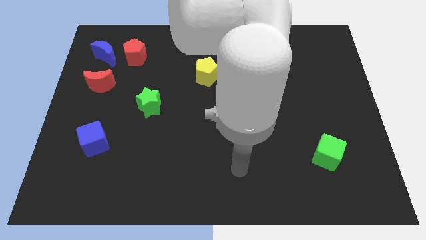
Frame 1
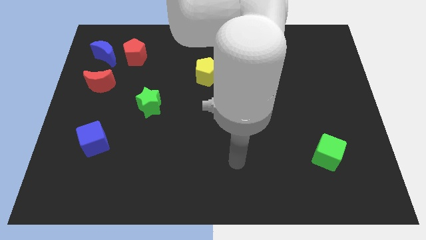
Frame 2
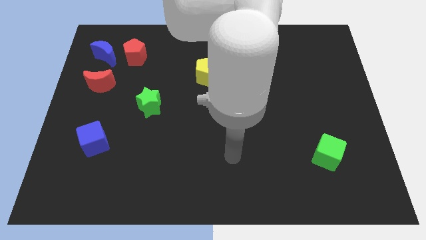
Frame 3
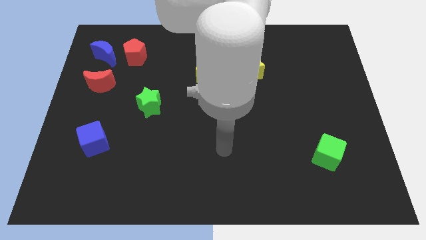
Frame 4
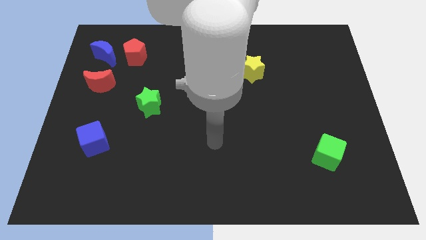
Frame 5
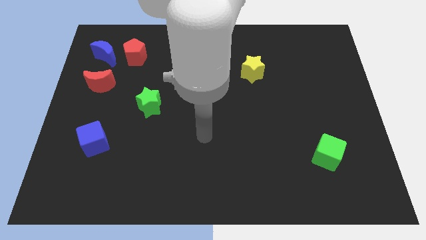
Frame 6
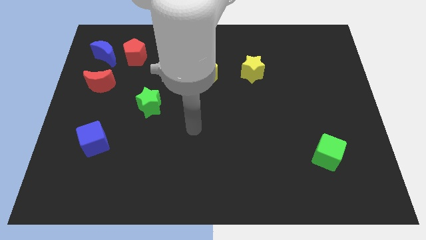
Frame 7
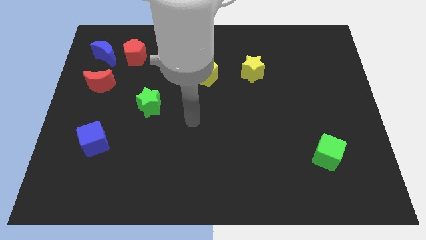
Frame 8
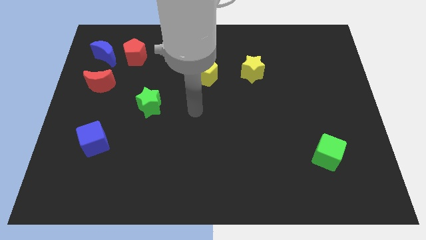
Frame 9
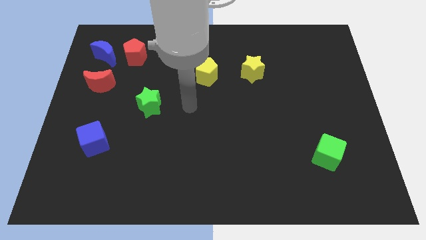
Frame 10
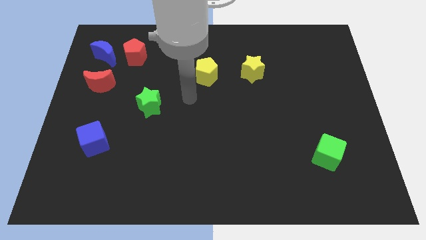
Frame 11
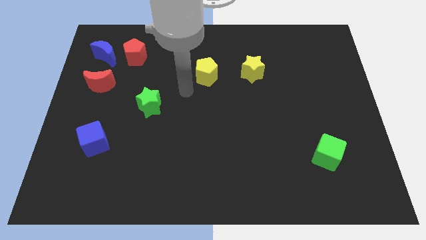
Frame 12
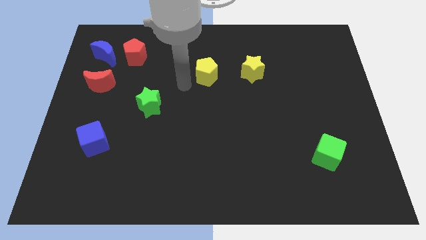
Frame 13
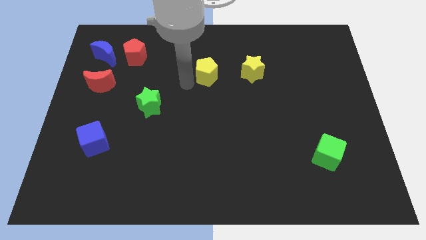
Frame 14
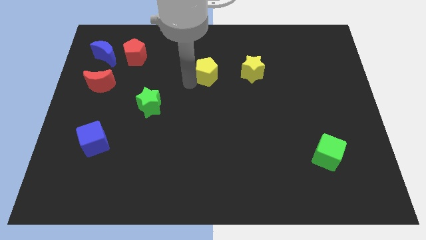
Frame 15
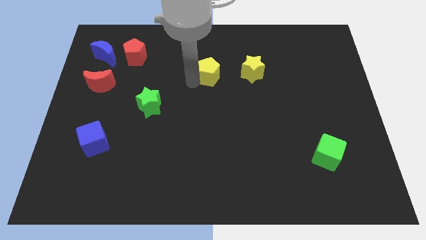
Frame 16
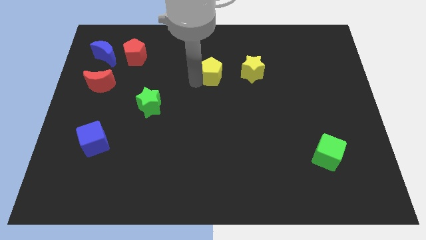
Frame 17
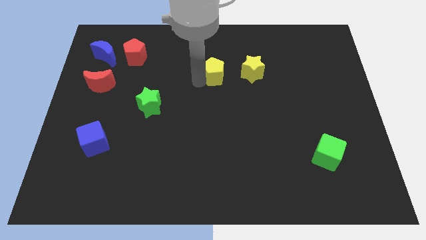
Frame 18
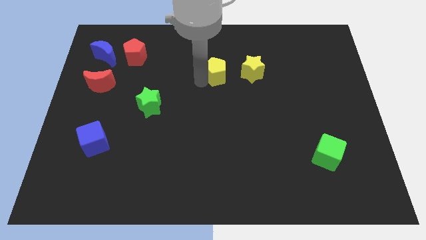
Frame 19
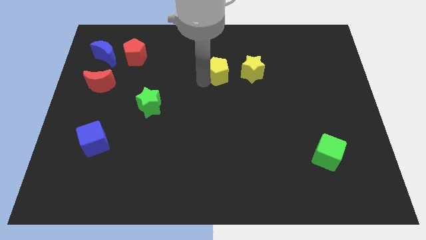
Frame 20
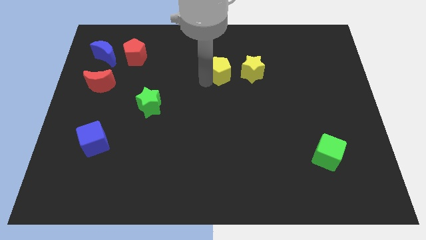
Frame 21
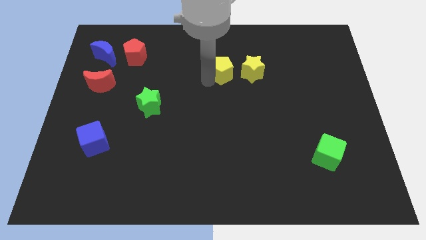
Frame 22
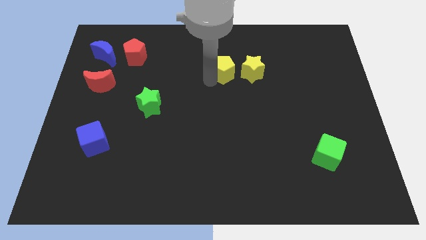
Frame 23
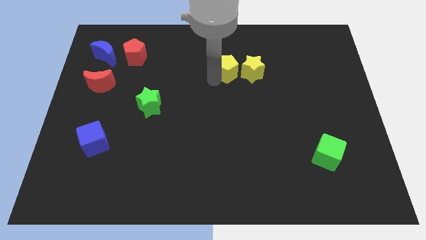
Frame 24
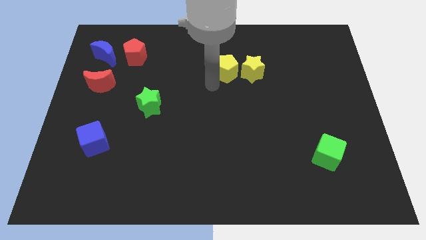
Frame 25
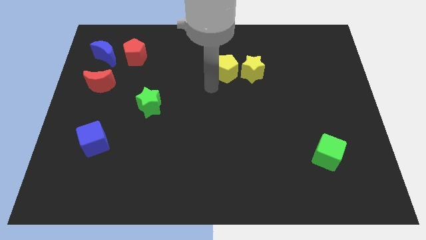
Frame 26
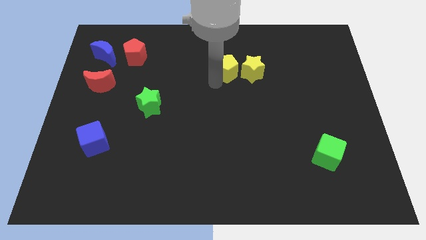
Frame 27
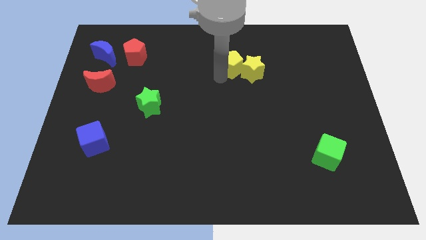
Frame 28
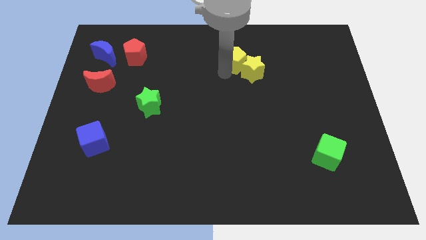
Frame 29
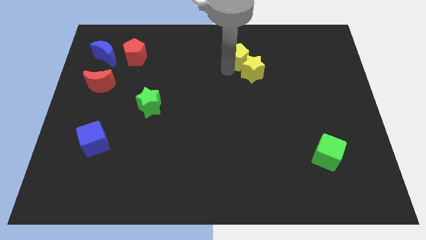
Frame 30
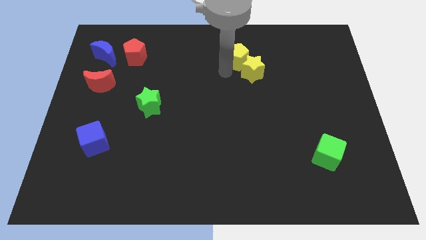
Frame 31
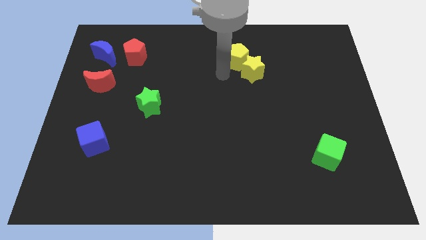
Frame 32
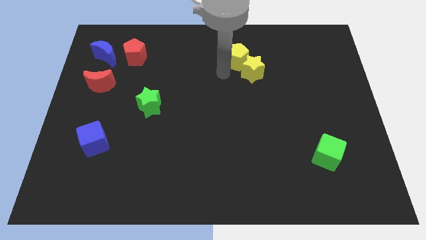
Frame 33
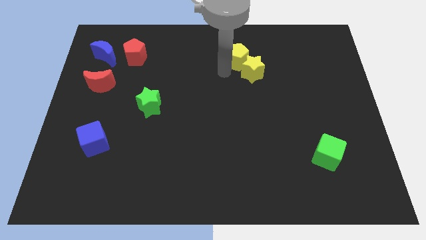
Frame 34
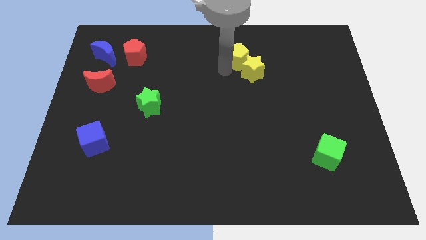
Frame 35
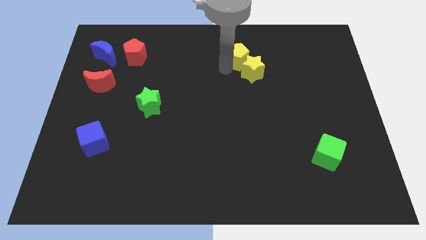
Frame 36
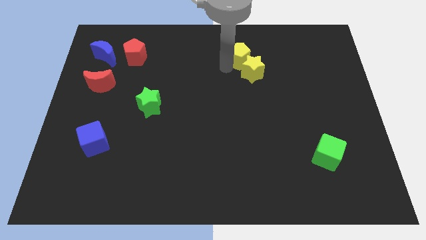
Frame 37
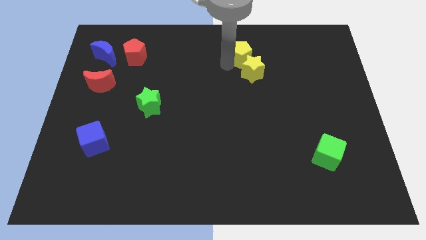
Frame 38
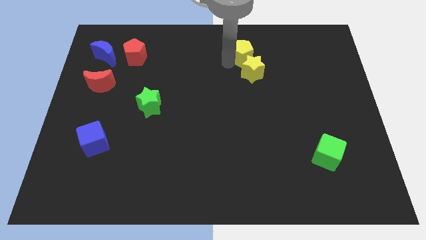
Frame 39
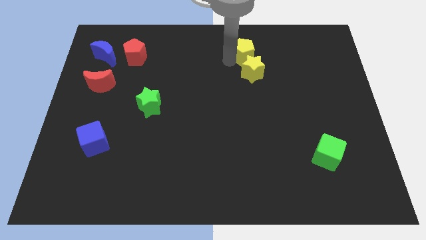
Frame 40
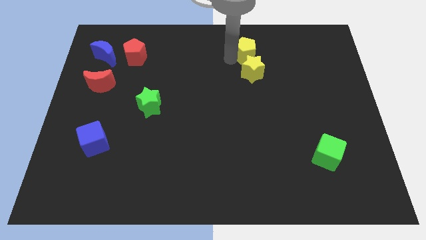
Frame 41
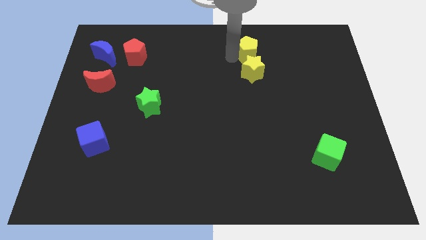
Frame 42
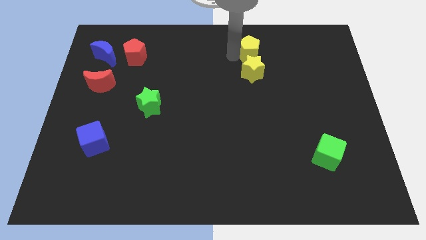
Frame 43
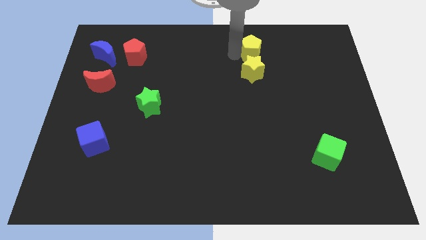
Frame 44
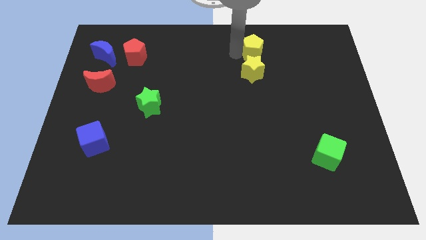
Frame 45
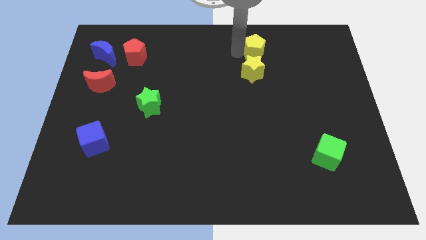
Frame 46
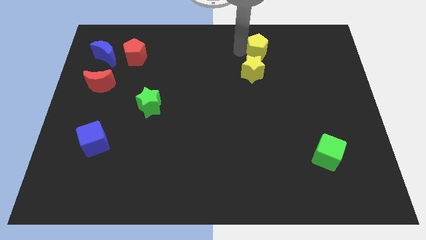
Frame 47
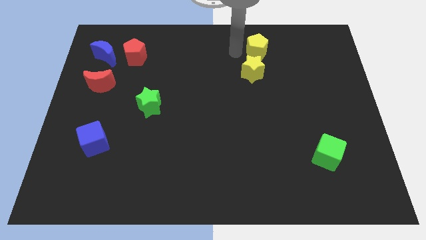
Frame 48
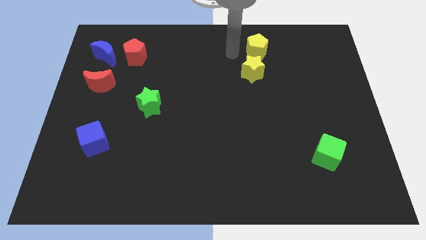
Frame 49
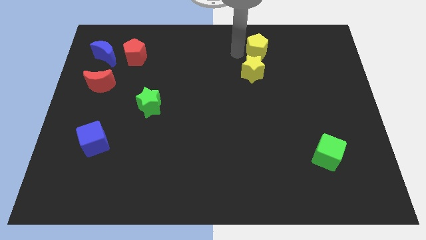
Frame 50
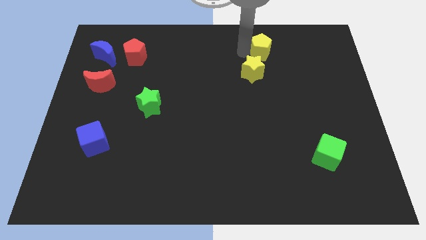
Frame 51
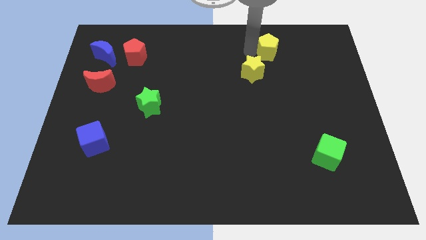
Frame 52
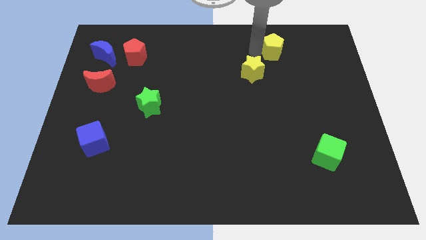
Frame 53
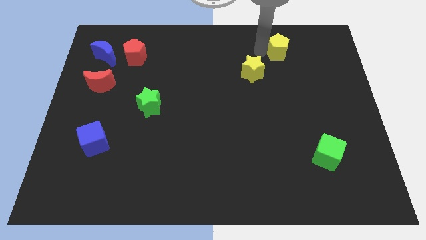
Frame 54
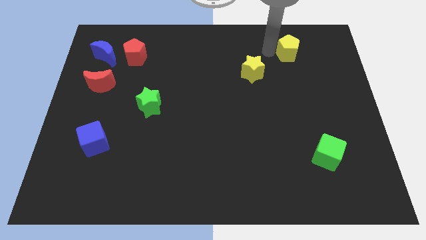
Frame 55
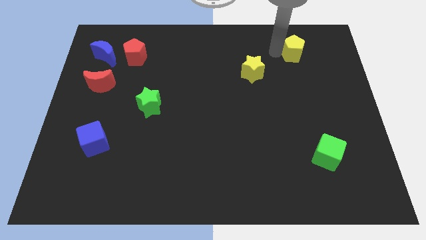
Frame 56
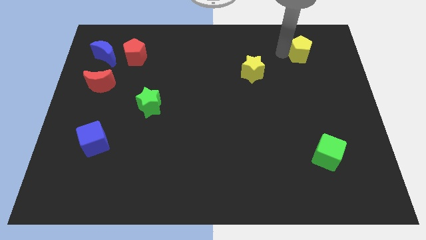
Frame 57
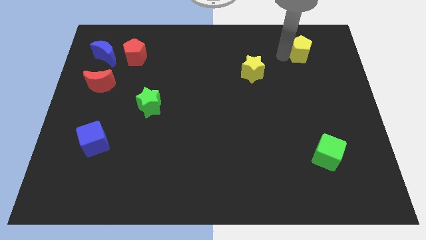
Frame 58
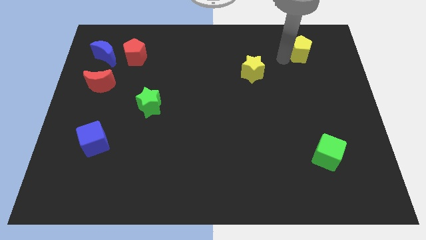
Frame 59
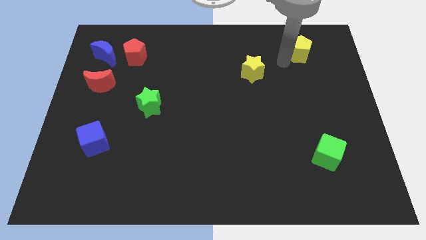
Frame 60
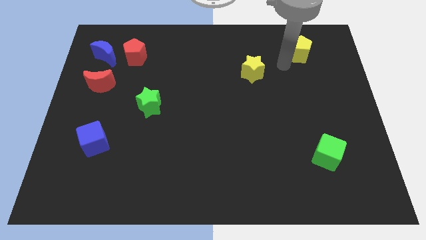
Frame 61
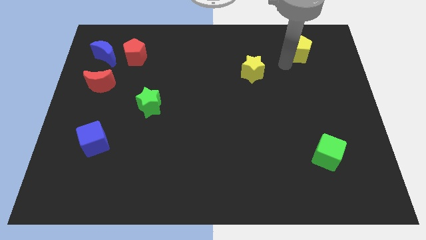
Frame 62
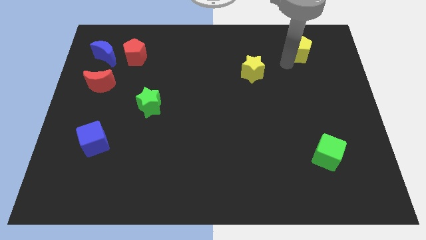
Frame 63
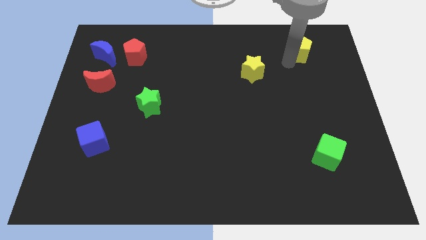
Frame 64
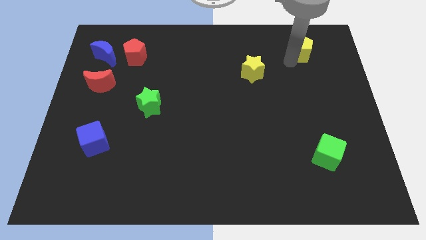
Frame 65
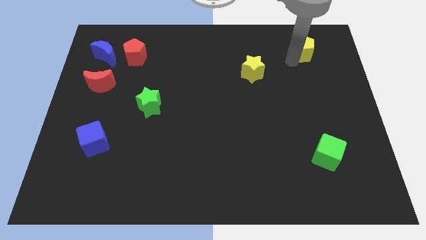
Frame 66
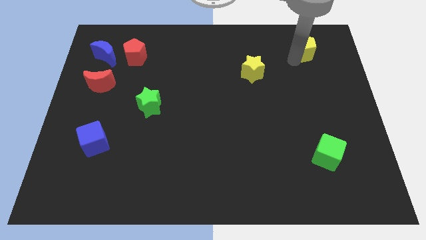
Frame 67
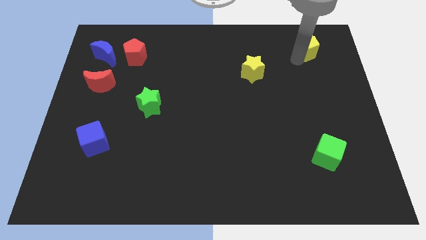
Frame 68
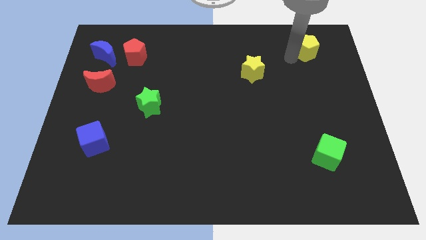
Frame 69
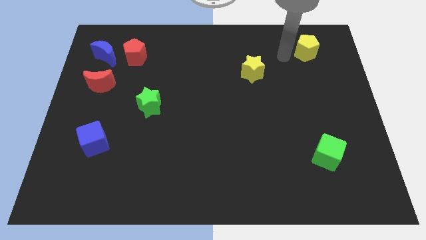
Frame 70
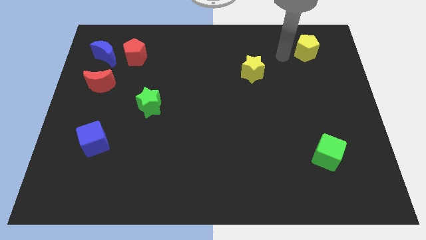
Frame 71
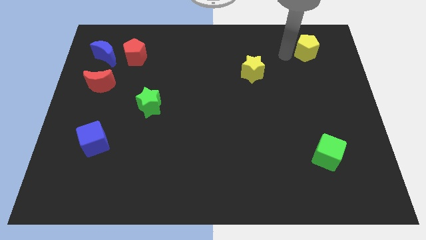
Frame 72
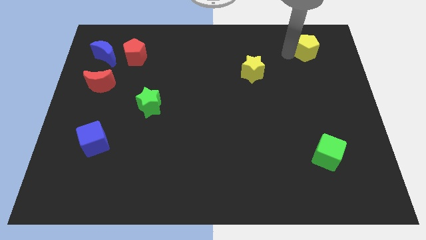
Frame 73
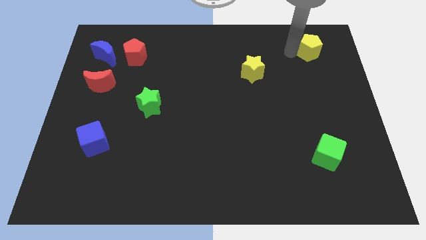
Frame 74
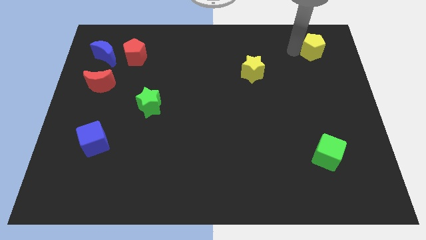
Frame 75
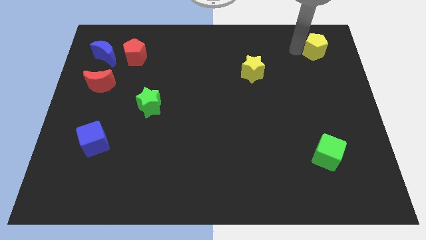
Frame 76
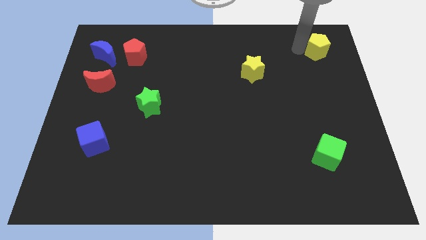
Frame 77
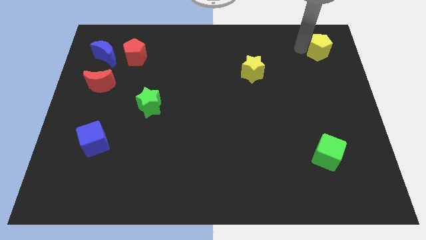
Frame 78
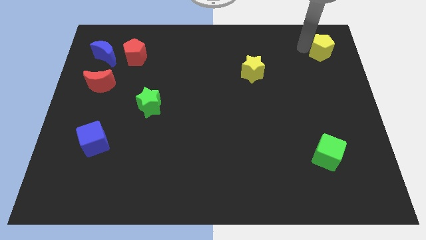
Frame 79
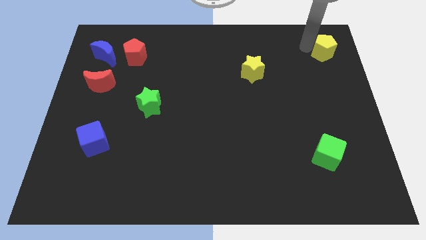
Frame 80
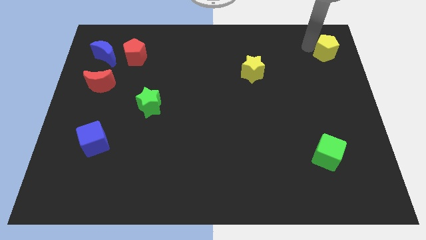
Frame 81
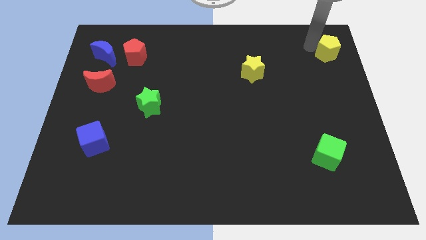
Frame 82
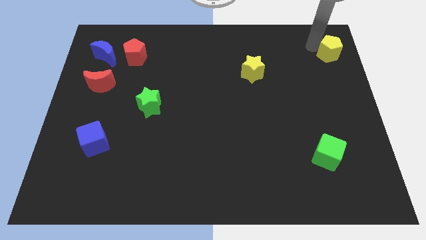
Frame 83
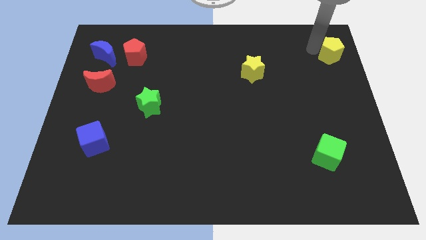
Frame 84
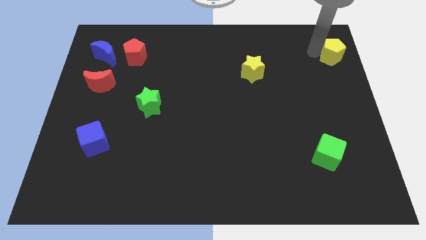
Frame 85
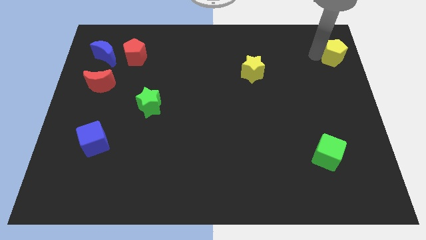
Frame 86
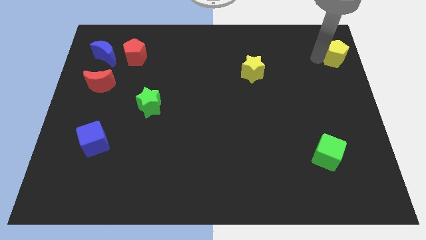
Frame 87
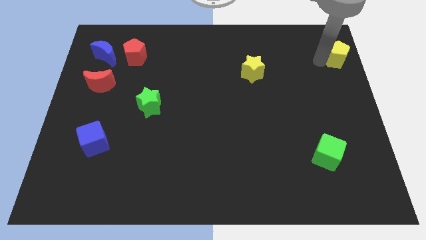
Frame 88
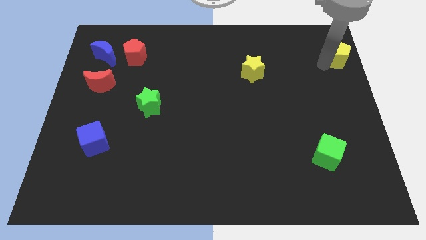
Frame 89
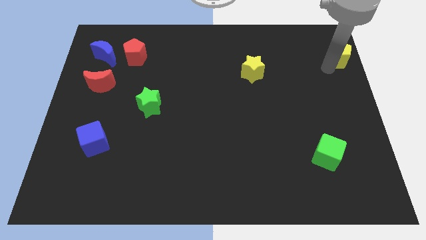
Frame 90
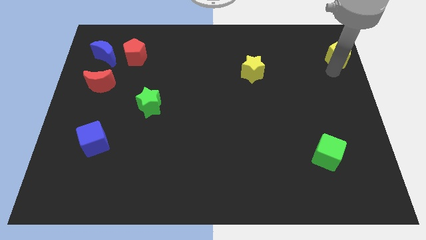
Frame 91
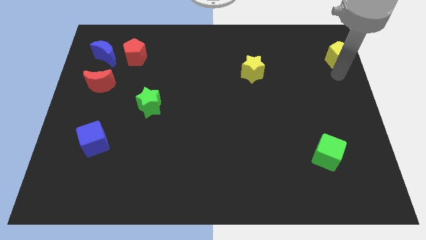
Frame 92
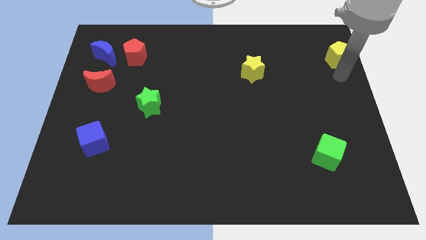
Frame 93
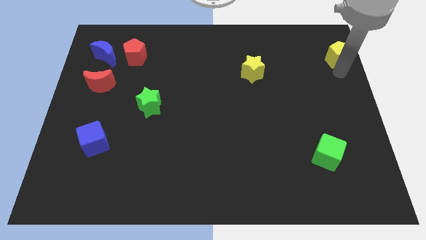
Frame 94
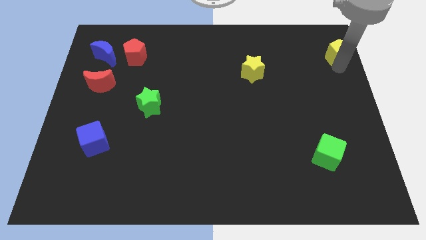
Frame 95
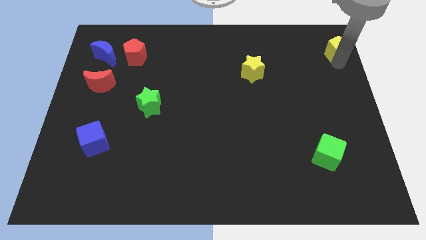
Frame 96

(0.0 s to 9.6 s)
slide the yellow pentagon to the top right of the board
